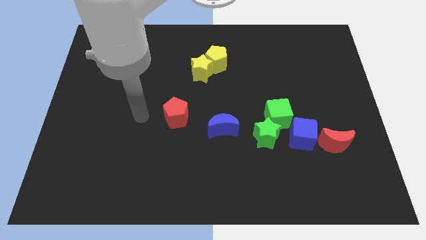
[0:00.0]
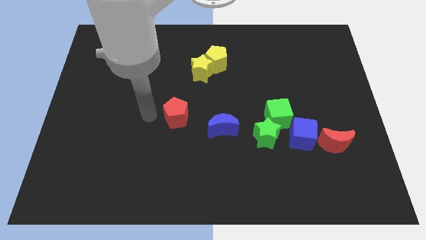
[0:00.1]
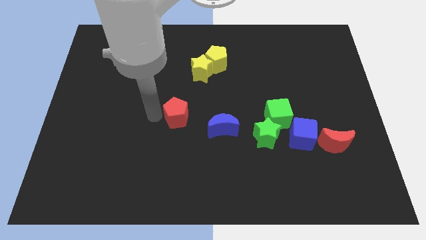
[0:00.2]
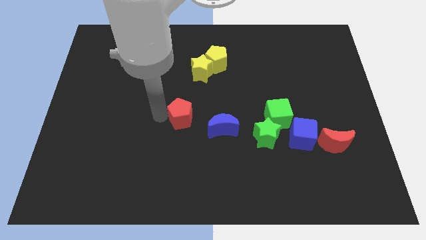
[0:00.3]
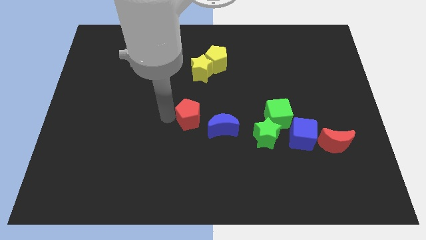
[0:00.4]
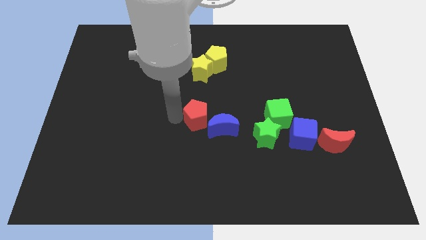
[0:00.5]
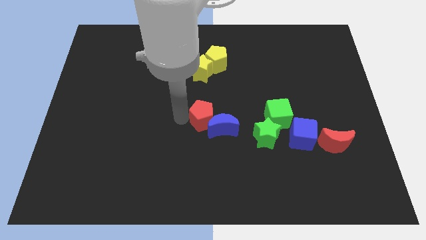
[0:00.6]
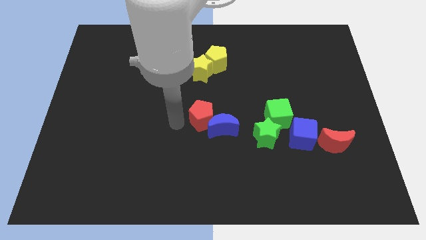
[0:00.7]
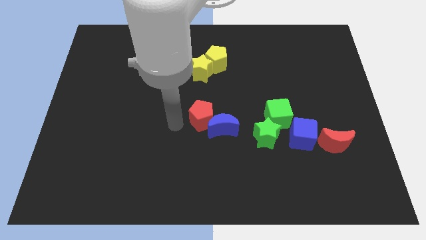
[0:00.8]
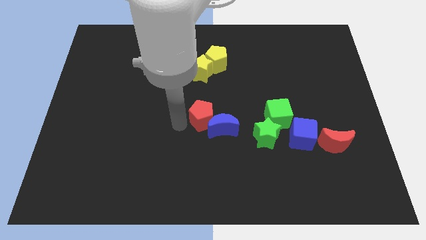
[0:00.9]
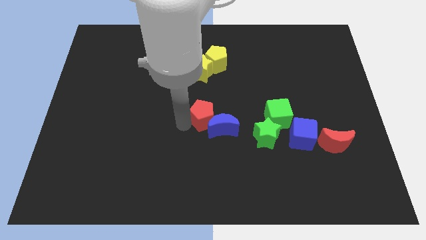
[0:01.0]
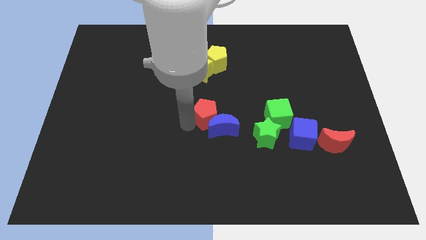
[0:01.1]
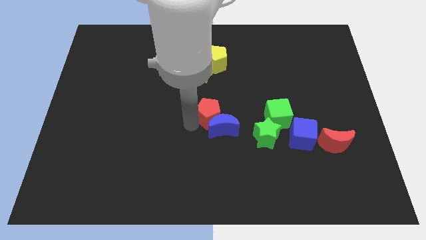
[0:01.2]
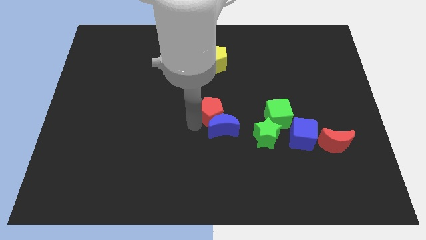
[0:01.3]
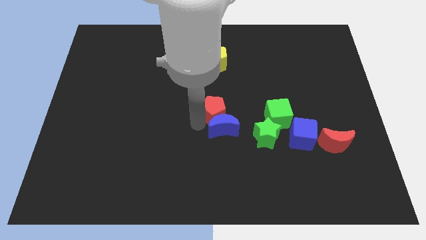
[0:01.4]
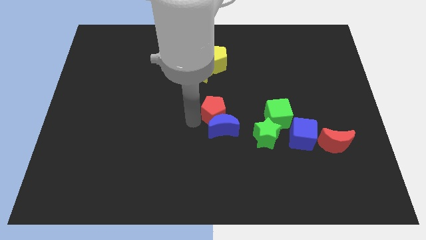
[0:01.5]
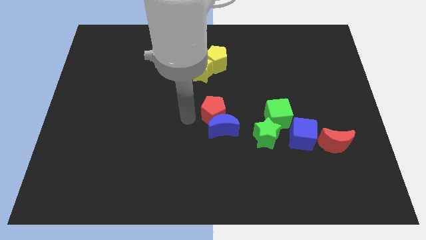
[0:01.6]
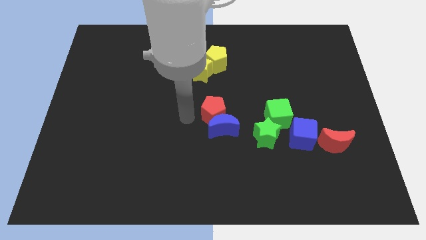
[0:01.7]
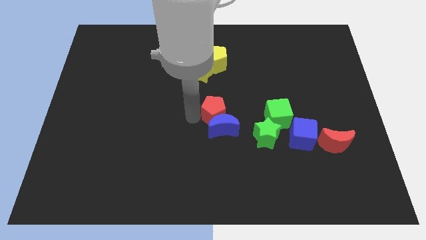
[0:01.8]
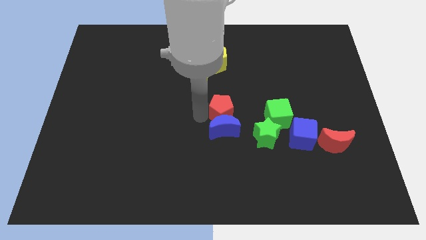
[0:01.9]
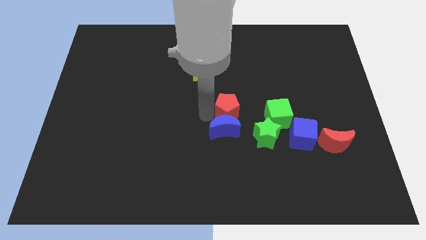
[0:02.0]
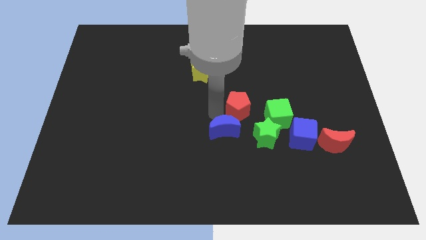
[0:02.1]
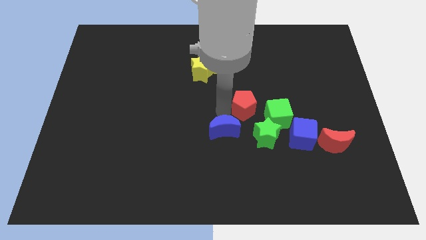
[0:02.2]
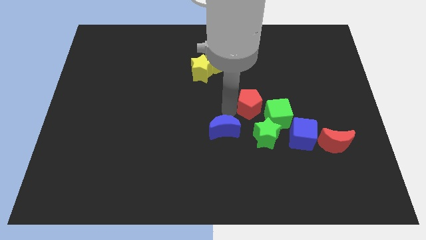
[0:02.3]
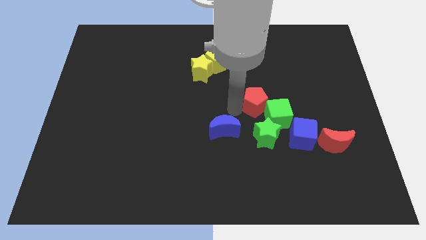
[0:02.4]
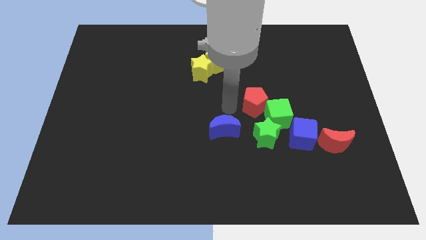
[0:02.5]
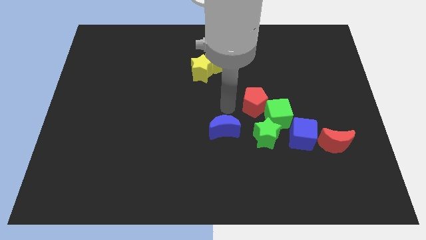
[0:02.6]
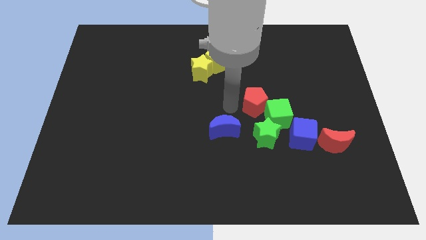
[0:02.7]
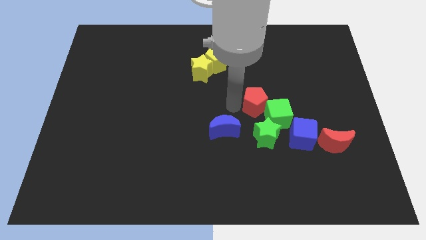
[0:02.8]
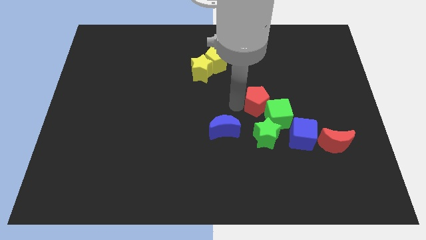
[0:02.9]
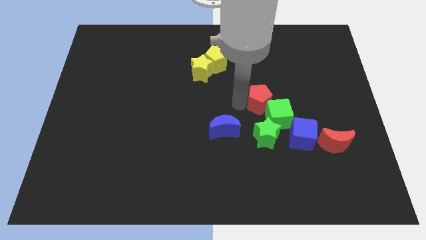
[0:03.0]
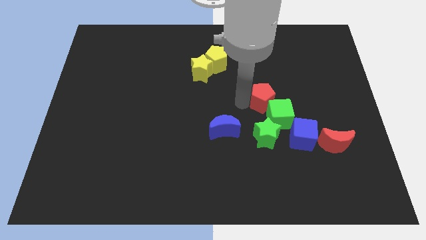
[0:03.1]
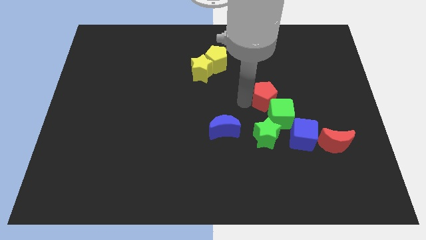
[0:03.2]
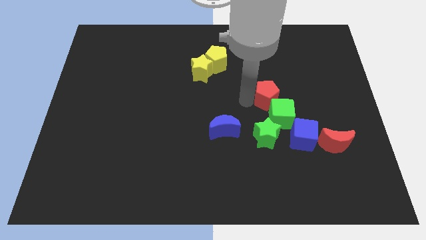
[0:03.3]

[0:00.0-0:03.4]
push the red pentagon right

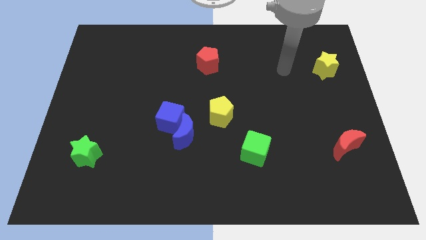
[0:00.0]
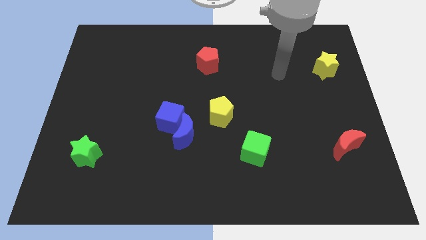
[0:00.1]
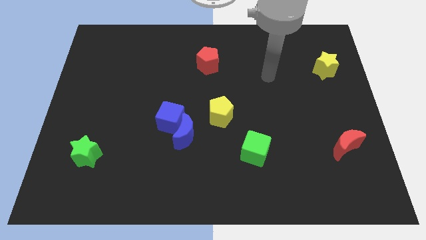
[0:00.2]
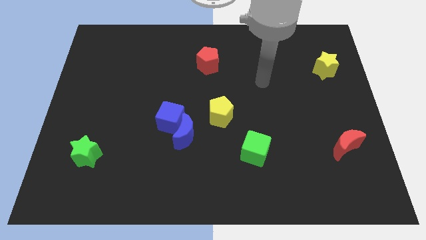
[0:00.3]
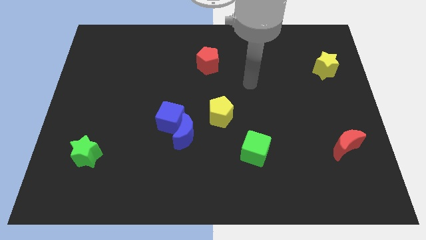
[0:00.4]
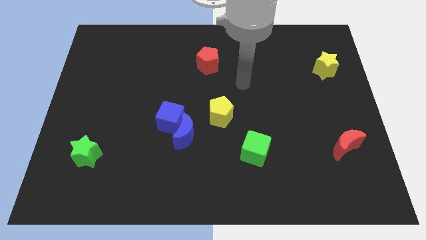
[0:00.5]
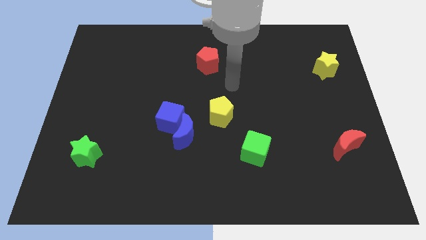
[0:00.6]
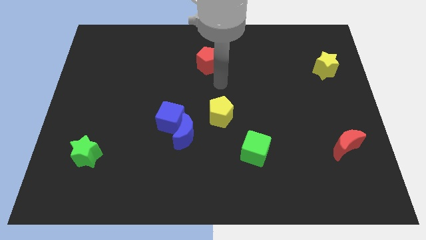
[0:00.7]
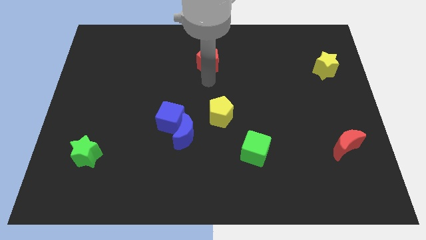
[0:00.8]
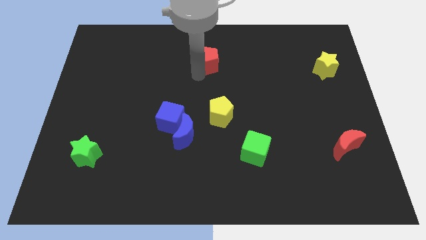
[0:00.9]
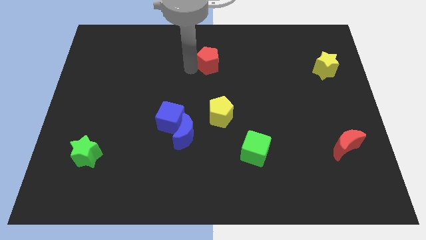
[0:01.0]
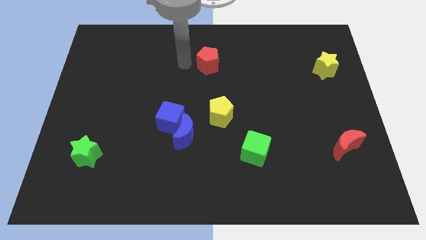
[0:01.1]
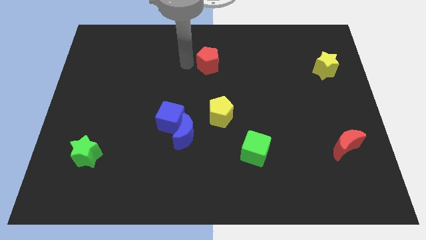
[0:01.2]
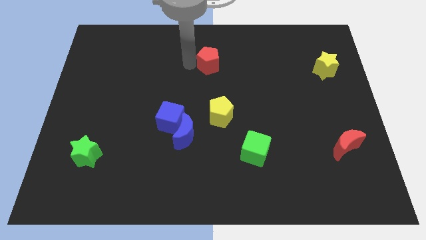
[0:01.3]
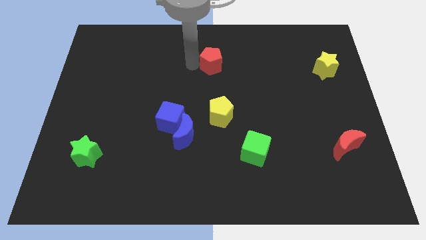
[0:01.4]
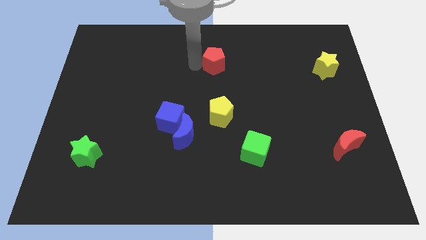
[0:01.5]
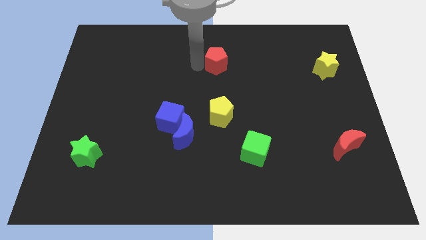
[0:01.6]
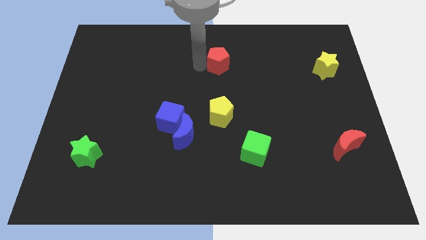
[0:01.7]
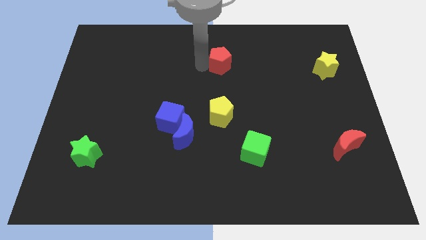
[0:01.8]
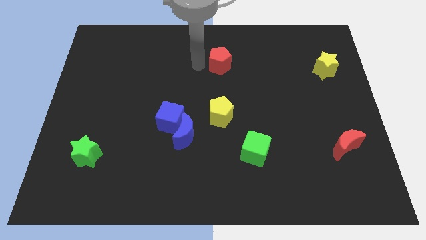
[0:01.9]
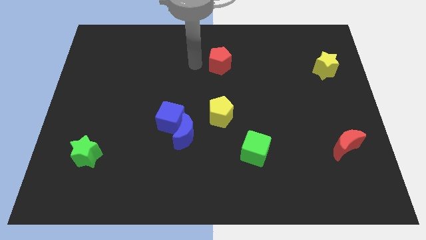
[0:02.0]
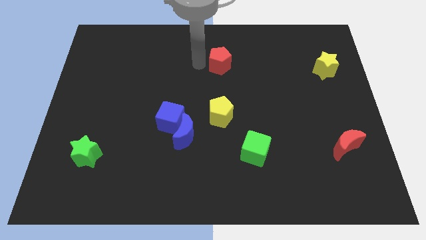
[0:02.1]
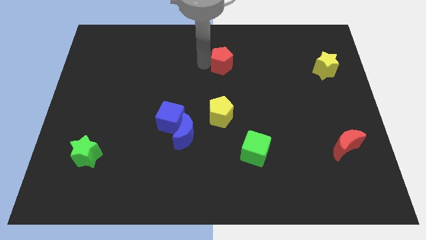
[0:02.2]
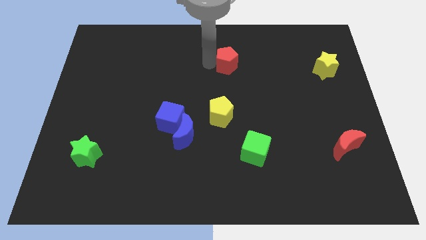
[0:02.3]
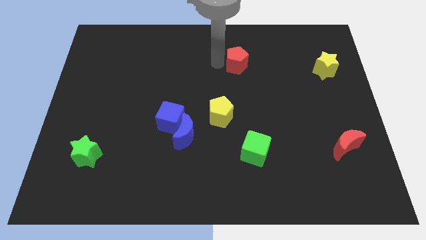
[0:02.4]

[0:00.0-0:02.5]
push the red pentagon a bit to the right

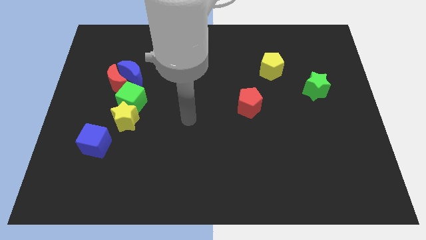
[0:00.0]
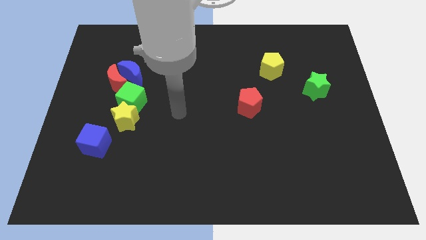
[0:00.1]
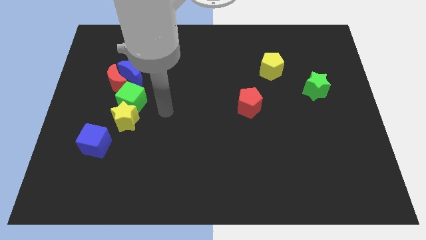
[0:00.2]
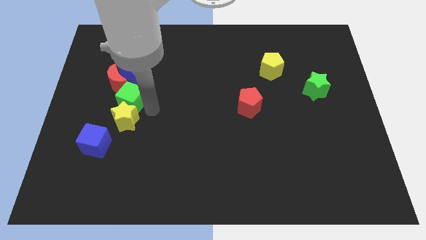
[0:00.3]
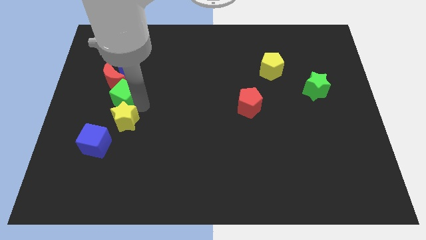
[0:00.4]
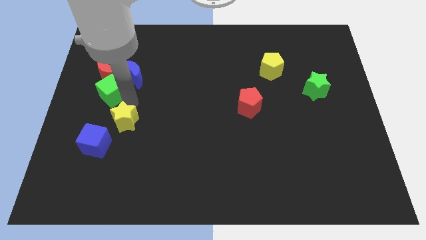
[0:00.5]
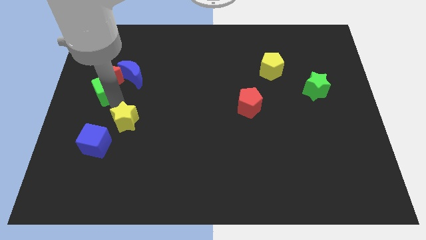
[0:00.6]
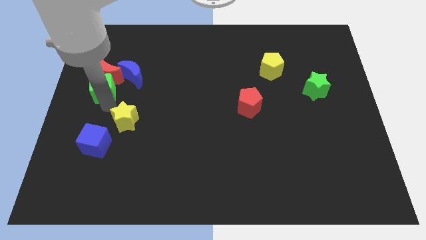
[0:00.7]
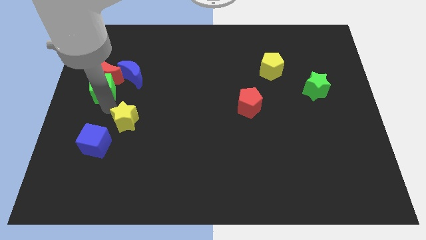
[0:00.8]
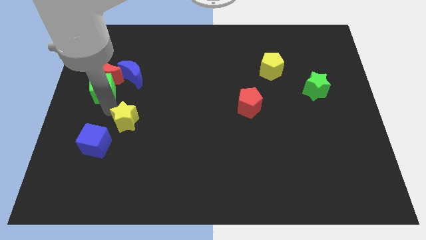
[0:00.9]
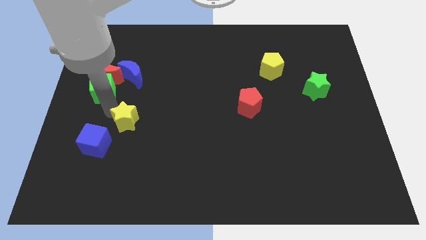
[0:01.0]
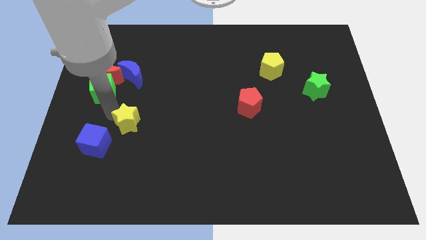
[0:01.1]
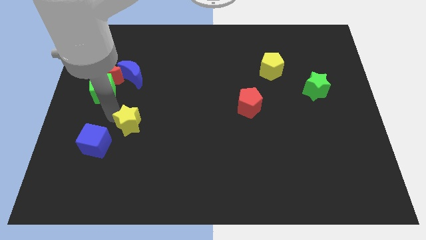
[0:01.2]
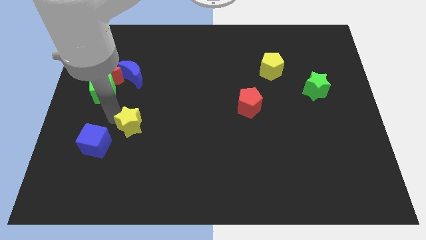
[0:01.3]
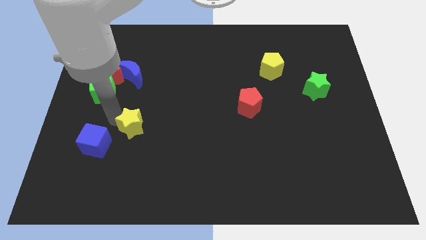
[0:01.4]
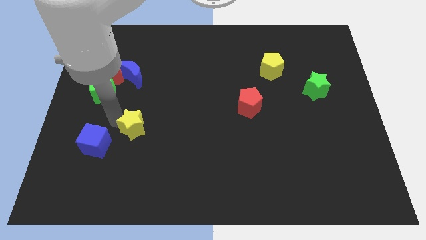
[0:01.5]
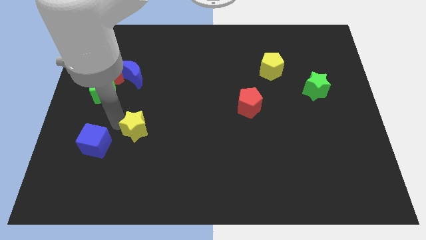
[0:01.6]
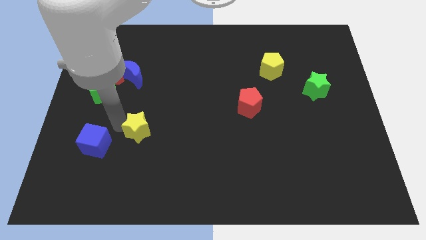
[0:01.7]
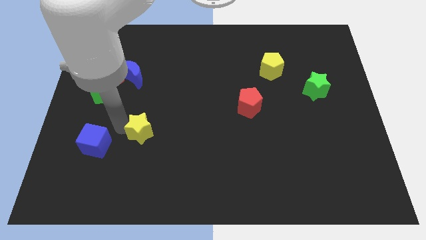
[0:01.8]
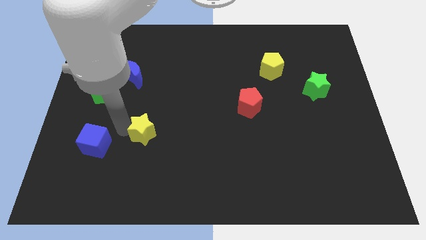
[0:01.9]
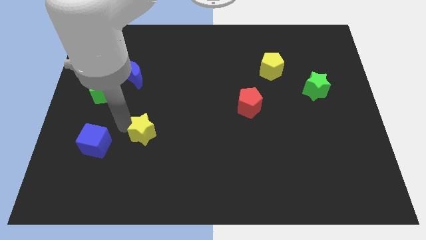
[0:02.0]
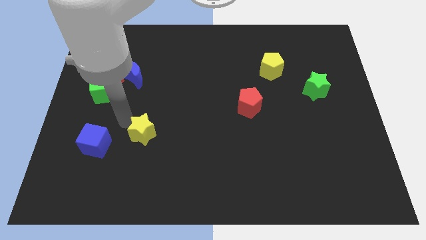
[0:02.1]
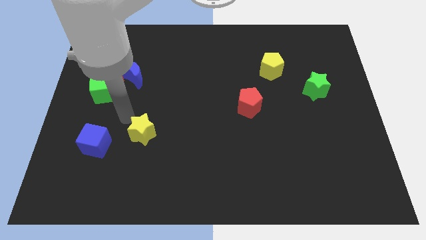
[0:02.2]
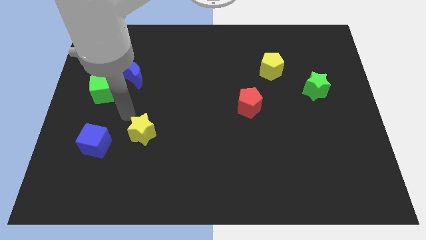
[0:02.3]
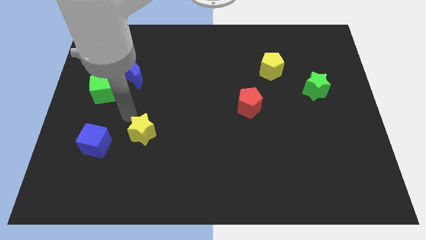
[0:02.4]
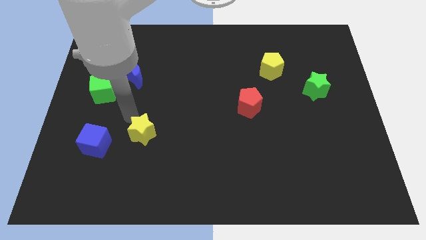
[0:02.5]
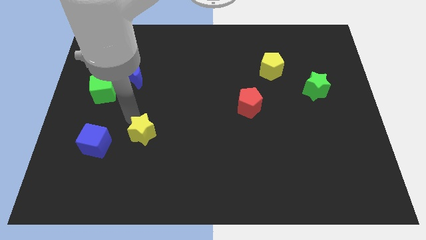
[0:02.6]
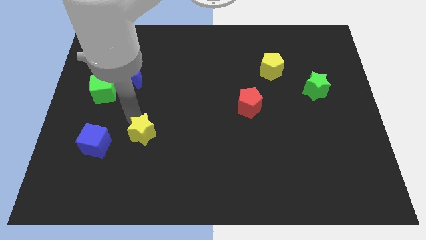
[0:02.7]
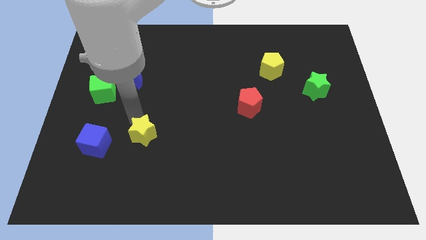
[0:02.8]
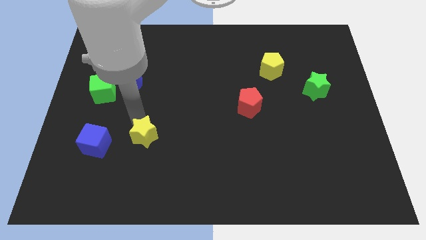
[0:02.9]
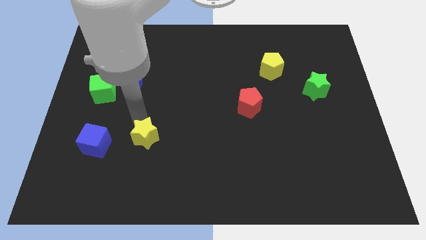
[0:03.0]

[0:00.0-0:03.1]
slide the yellow star a bit diagonally downwards and right
